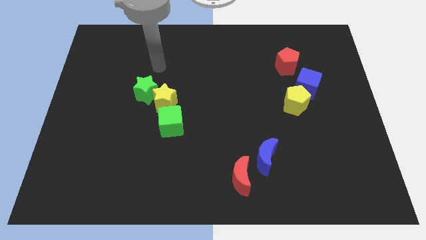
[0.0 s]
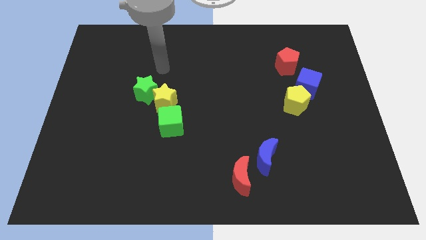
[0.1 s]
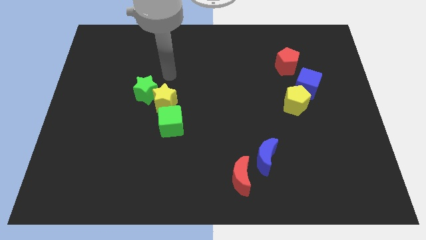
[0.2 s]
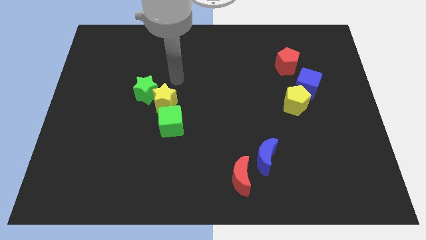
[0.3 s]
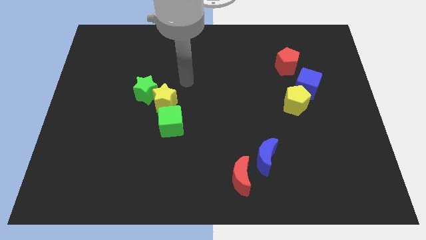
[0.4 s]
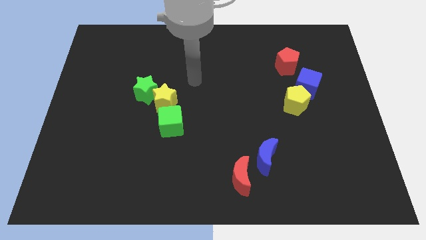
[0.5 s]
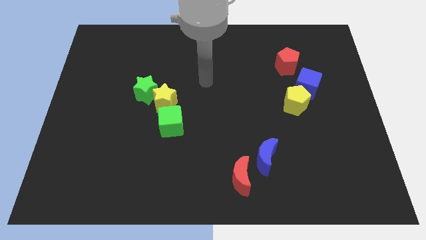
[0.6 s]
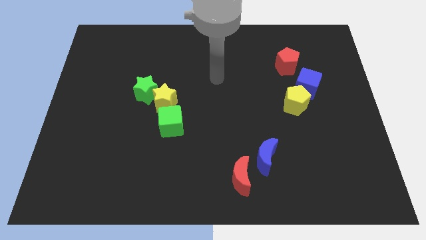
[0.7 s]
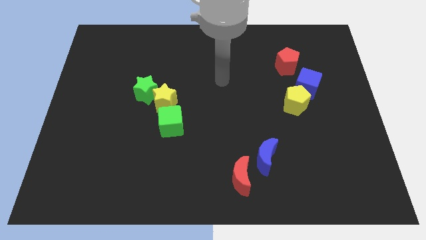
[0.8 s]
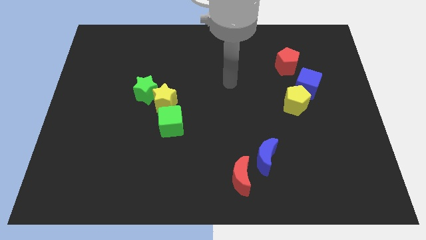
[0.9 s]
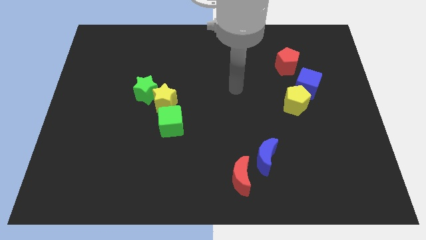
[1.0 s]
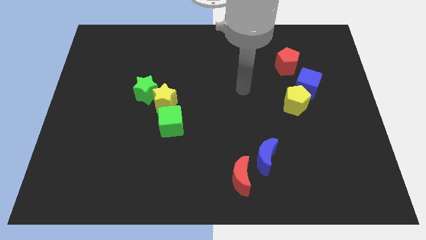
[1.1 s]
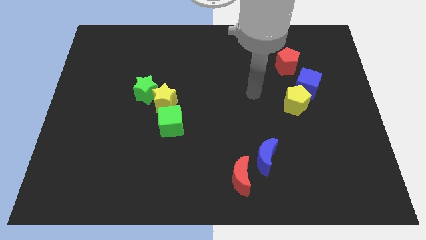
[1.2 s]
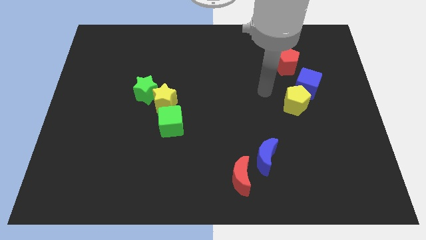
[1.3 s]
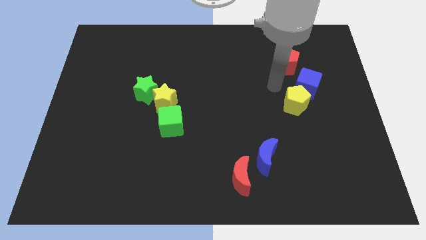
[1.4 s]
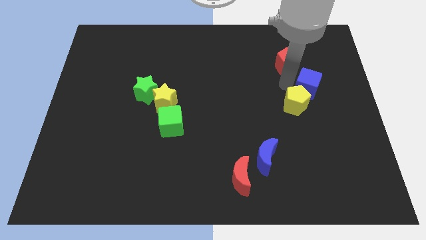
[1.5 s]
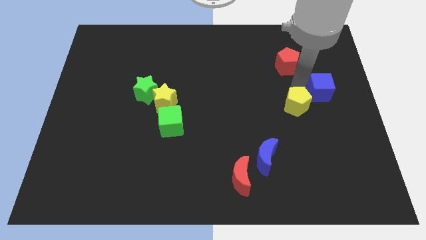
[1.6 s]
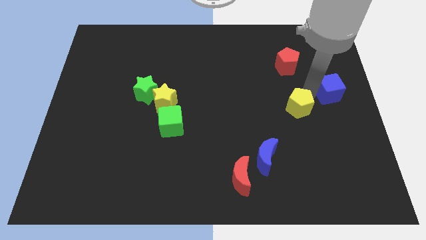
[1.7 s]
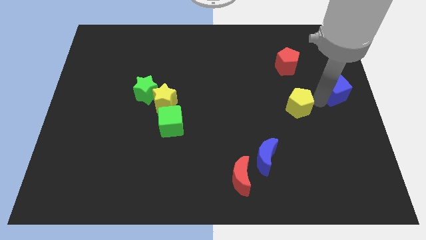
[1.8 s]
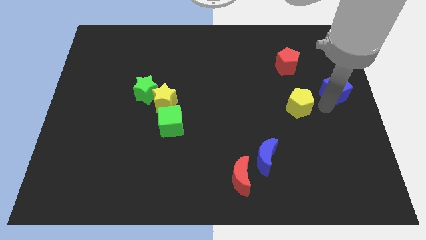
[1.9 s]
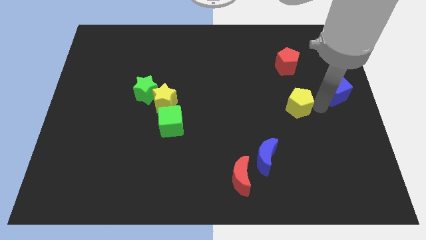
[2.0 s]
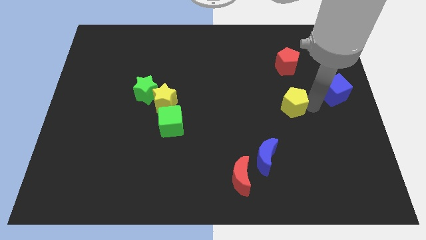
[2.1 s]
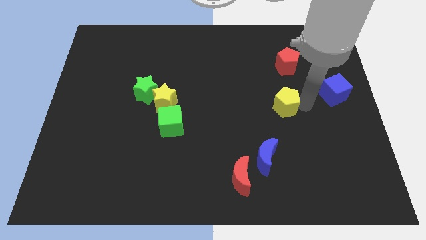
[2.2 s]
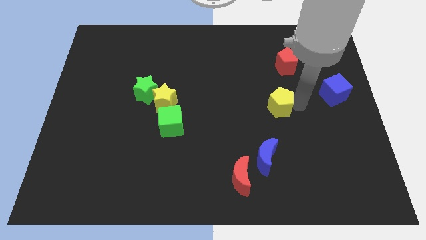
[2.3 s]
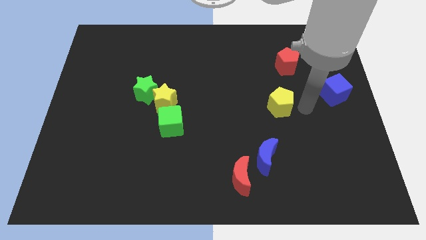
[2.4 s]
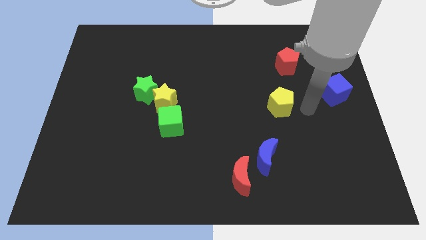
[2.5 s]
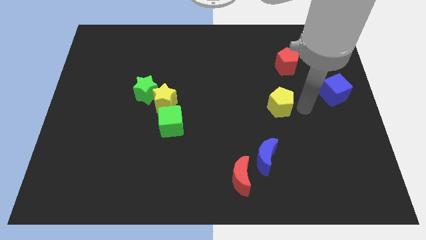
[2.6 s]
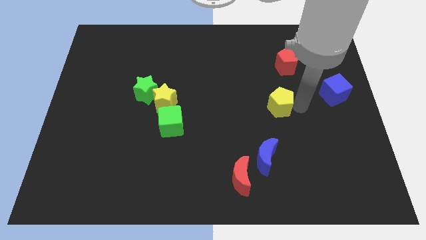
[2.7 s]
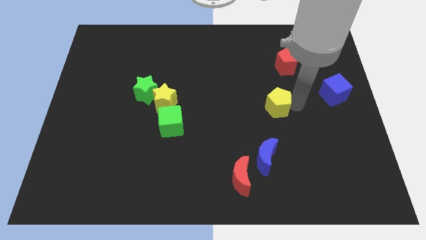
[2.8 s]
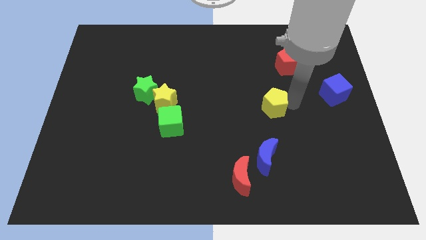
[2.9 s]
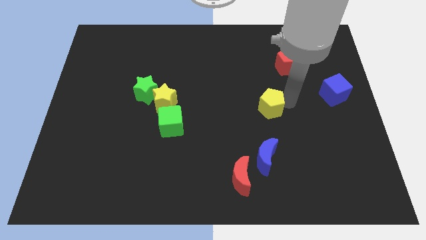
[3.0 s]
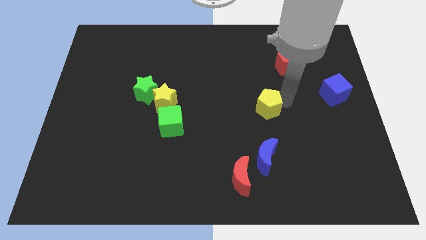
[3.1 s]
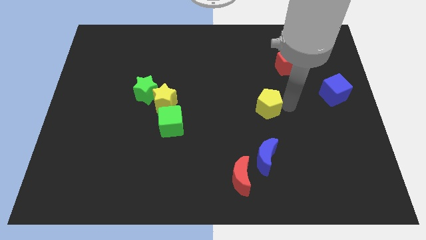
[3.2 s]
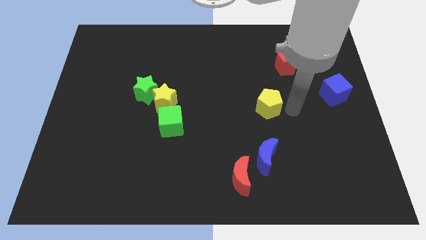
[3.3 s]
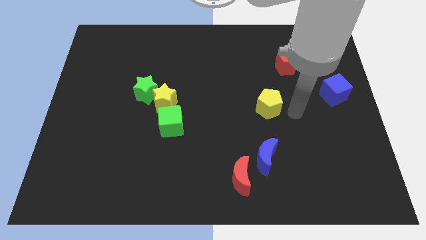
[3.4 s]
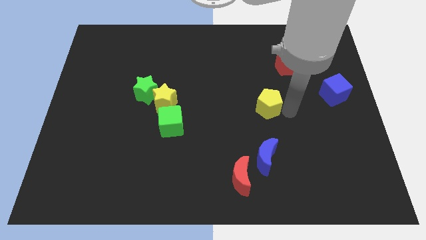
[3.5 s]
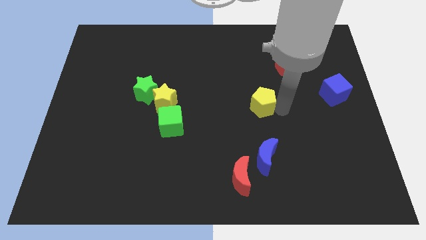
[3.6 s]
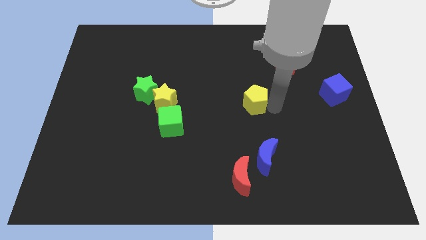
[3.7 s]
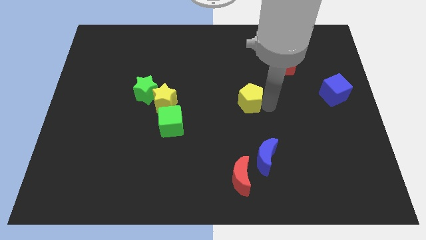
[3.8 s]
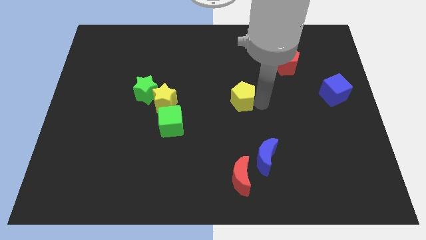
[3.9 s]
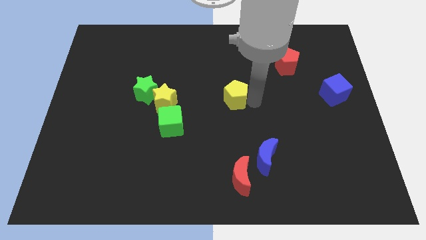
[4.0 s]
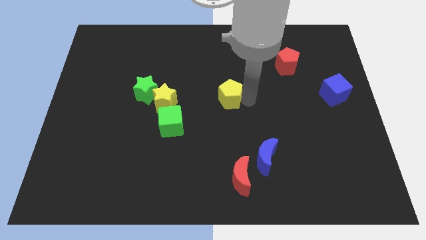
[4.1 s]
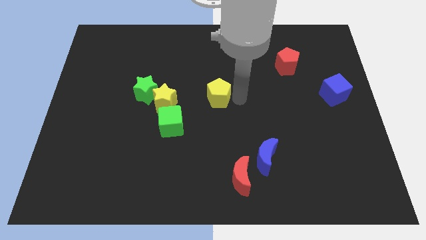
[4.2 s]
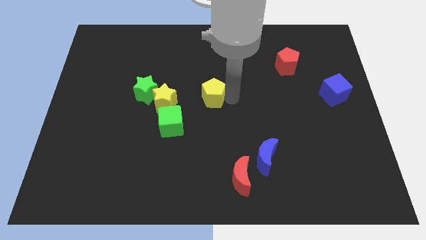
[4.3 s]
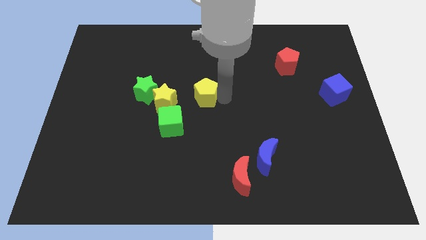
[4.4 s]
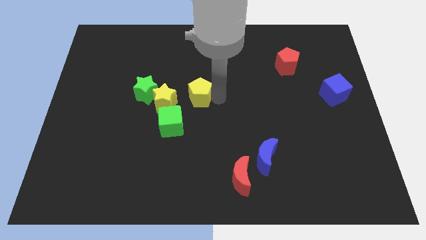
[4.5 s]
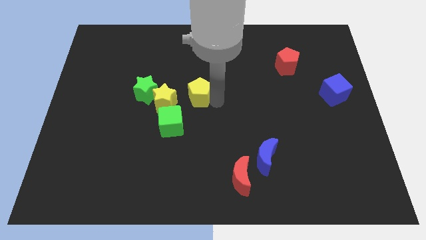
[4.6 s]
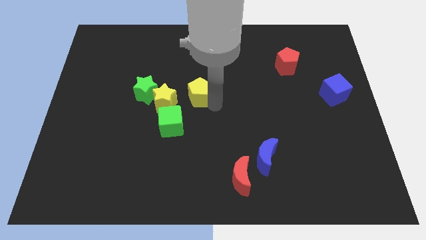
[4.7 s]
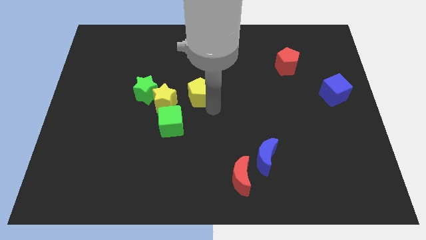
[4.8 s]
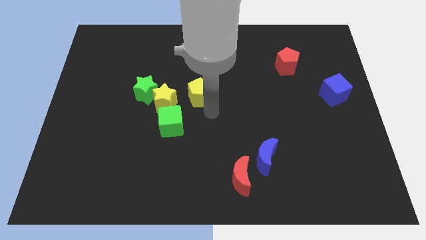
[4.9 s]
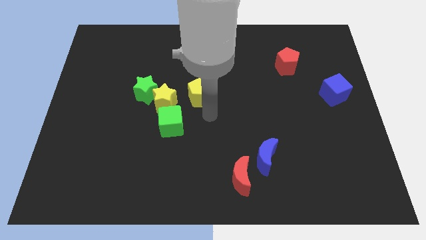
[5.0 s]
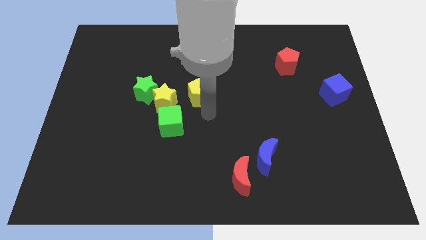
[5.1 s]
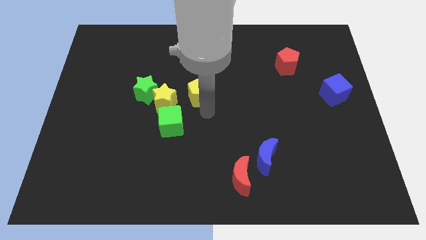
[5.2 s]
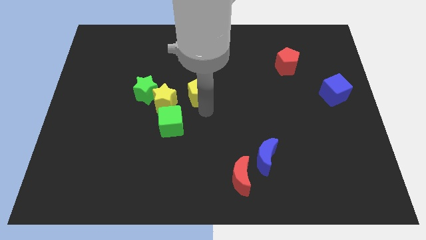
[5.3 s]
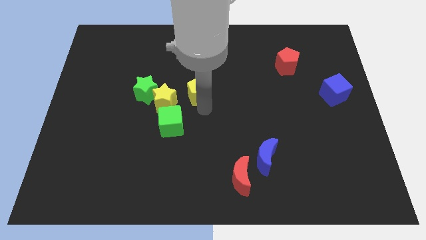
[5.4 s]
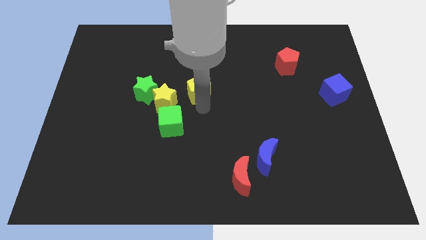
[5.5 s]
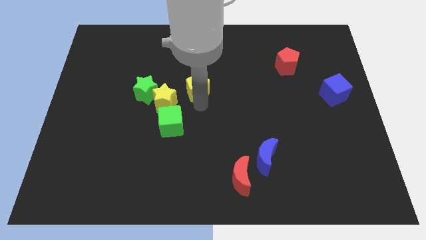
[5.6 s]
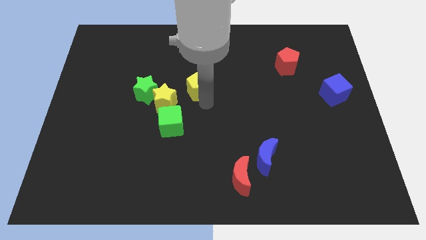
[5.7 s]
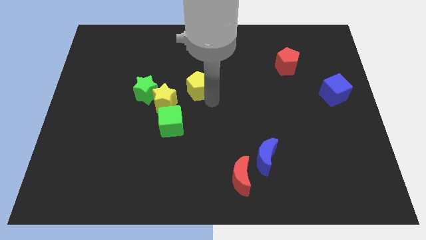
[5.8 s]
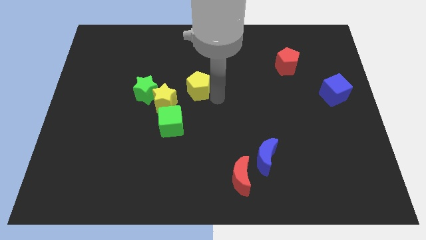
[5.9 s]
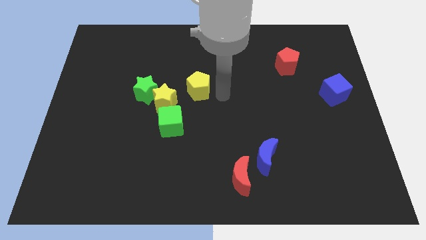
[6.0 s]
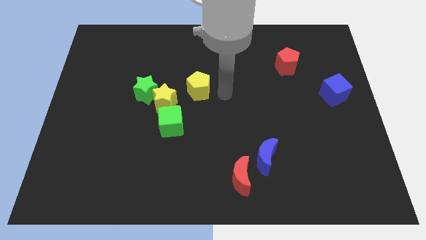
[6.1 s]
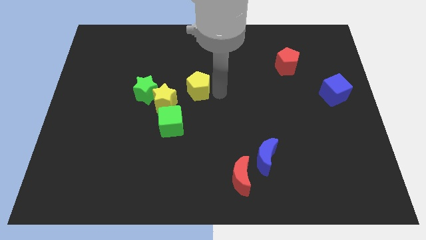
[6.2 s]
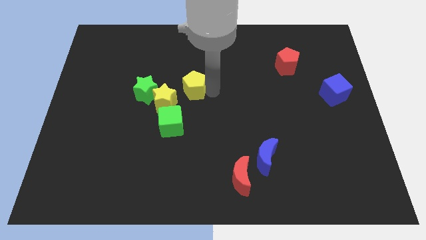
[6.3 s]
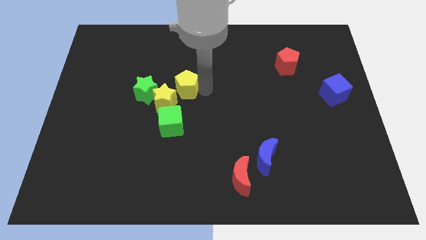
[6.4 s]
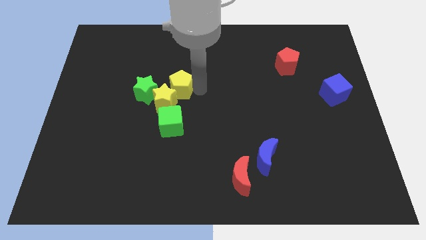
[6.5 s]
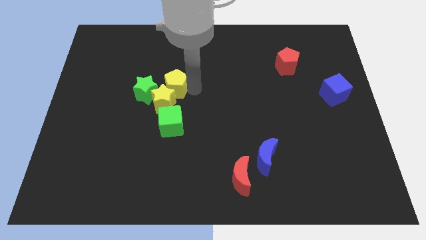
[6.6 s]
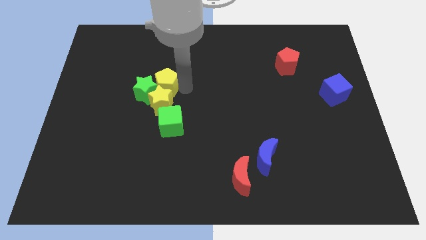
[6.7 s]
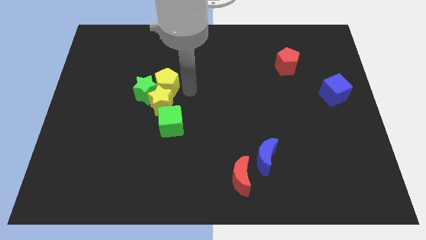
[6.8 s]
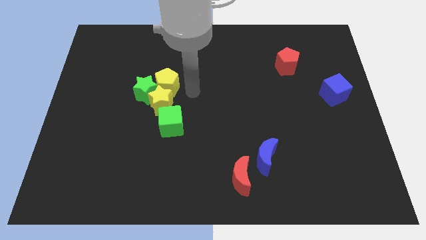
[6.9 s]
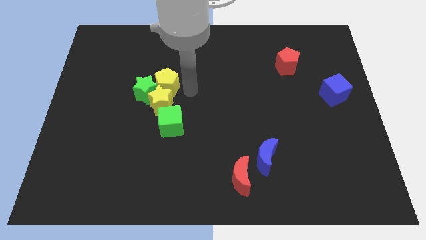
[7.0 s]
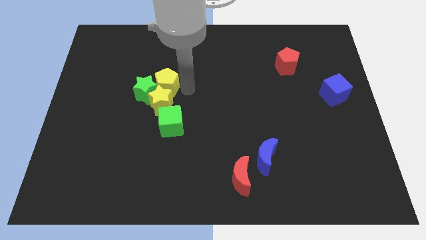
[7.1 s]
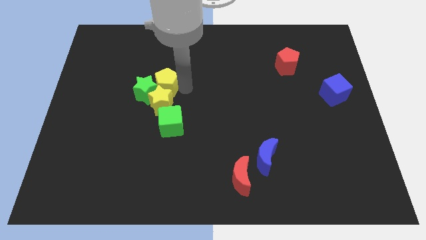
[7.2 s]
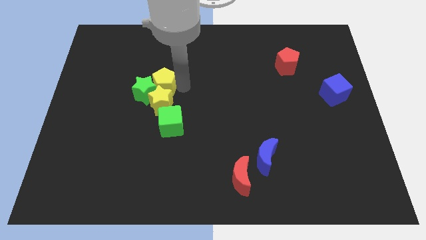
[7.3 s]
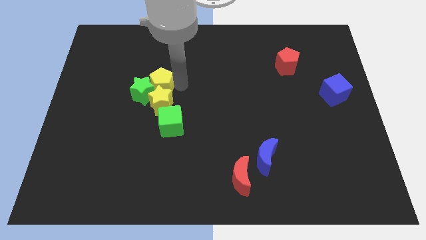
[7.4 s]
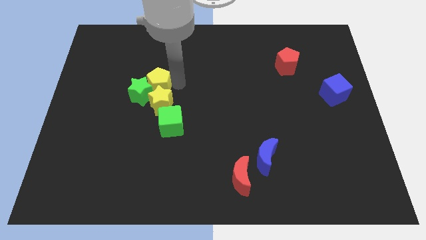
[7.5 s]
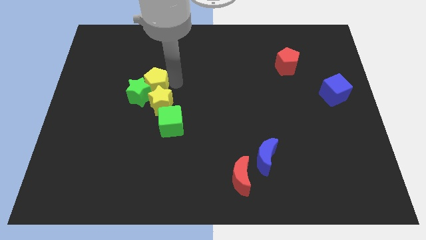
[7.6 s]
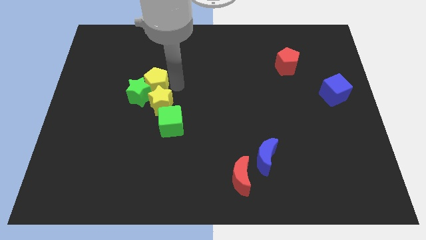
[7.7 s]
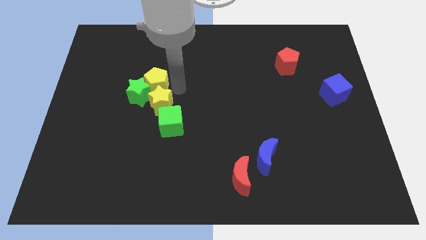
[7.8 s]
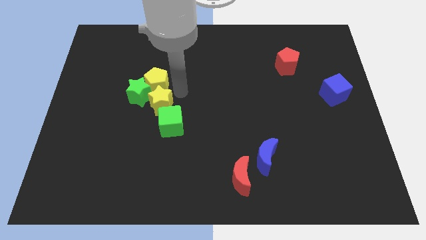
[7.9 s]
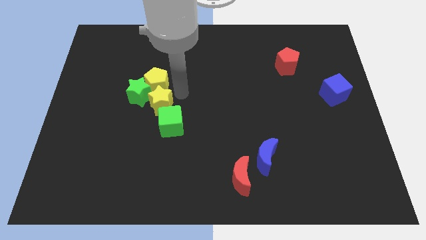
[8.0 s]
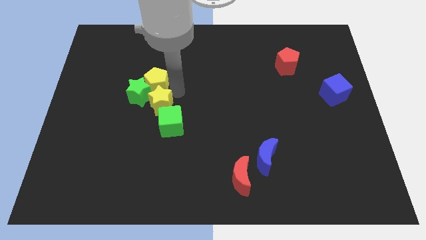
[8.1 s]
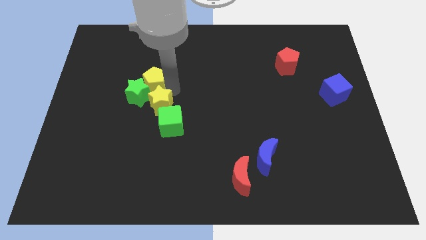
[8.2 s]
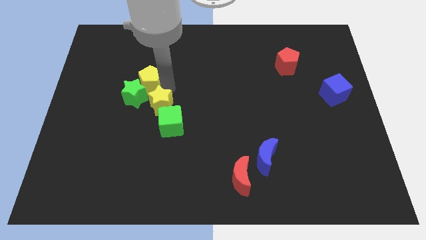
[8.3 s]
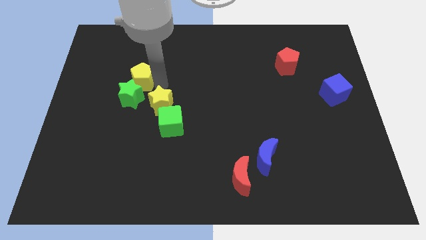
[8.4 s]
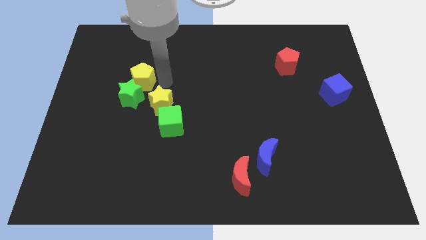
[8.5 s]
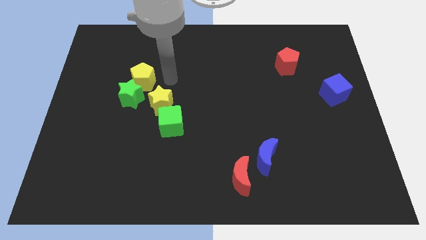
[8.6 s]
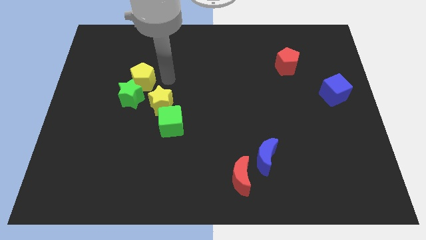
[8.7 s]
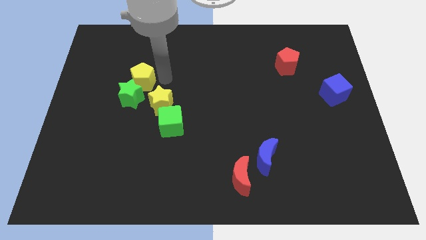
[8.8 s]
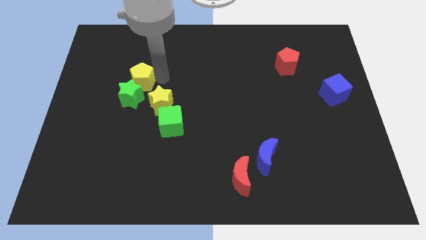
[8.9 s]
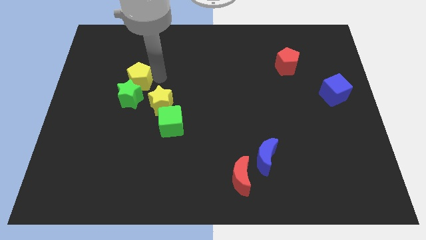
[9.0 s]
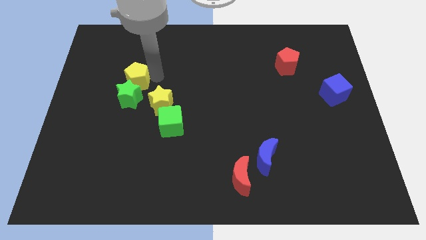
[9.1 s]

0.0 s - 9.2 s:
put the yellow pentagon to the top left of the green star
